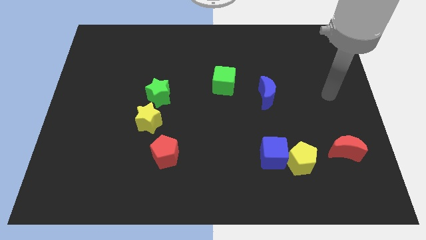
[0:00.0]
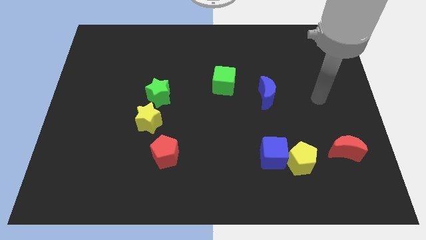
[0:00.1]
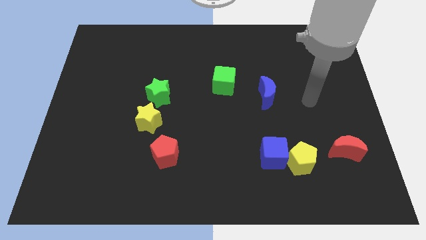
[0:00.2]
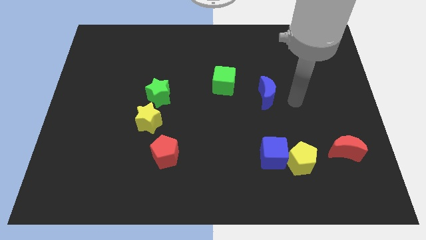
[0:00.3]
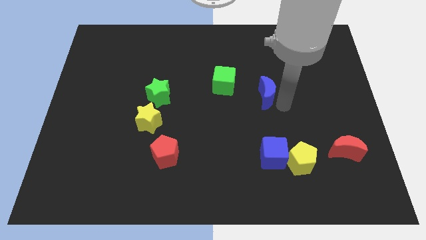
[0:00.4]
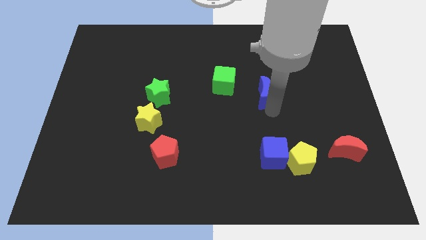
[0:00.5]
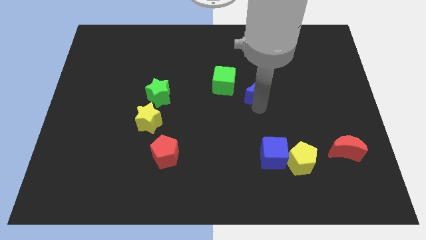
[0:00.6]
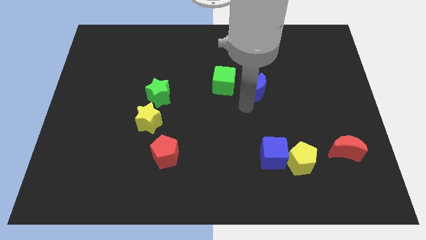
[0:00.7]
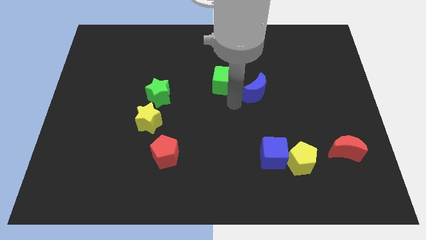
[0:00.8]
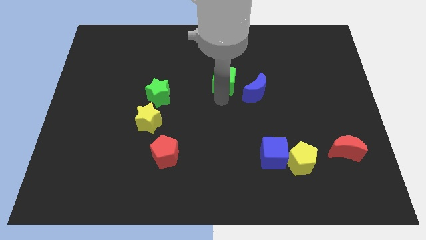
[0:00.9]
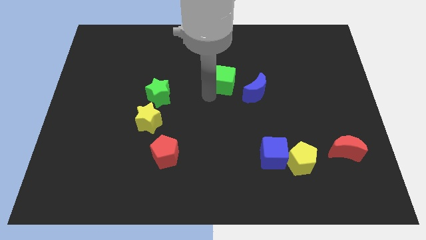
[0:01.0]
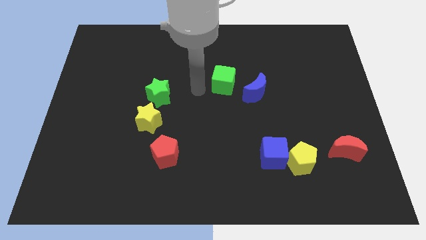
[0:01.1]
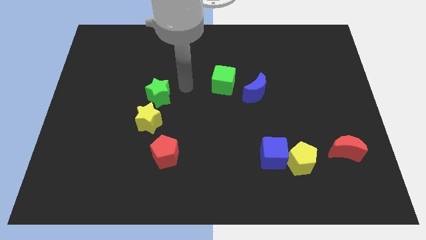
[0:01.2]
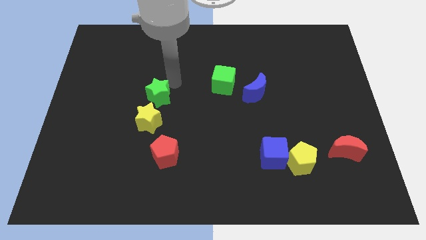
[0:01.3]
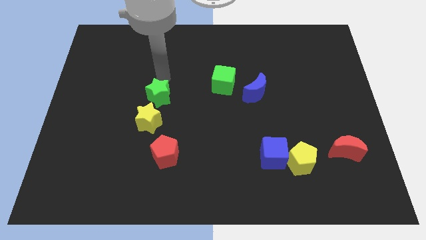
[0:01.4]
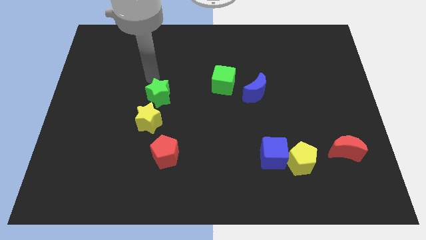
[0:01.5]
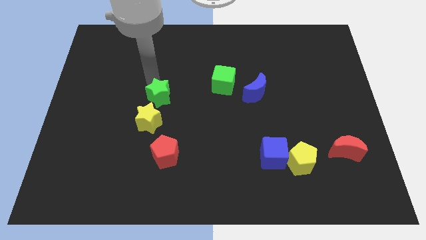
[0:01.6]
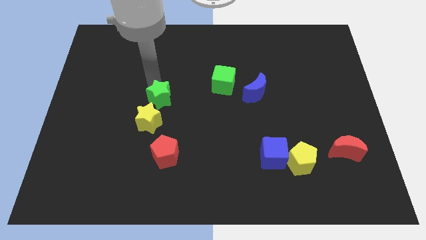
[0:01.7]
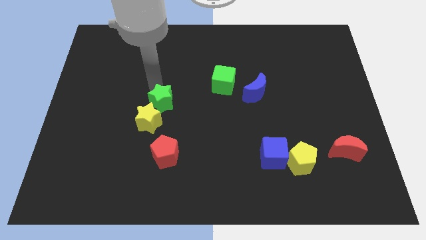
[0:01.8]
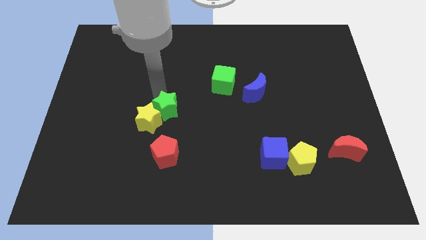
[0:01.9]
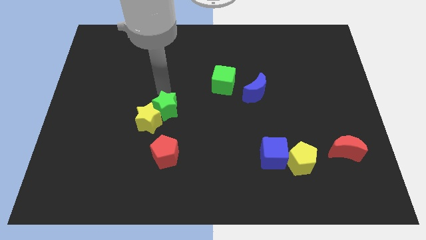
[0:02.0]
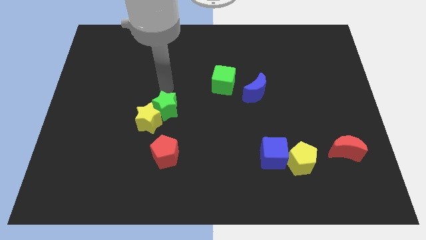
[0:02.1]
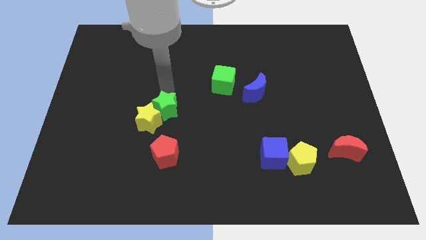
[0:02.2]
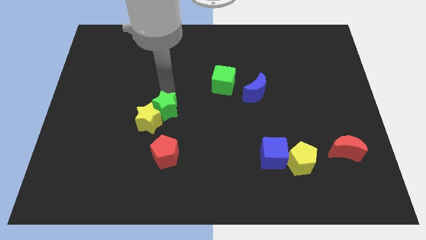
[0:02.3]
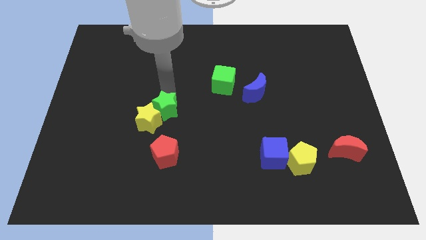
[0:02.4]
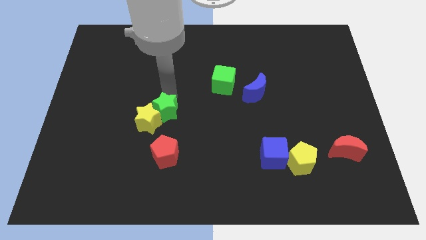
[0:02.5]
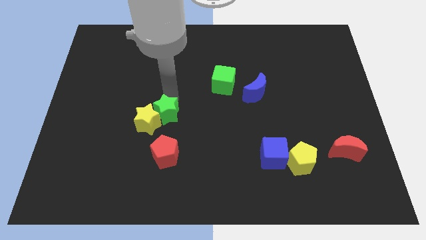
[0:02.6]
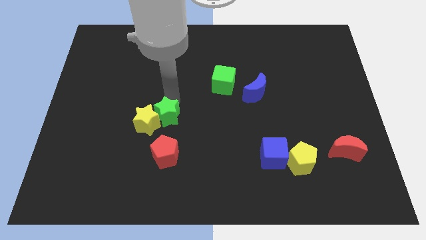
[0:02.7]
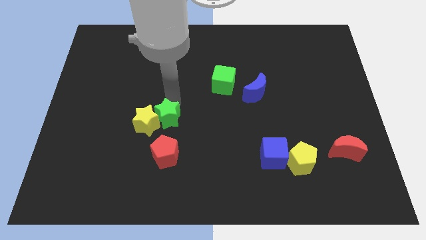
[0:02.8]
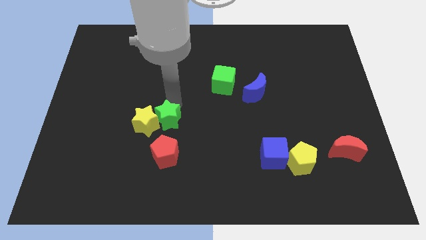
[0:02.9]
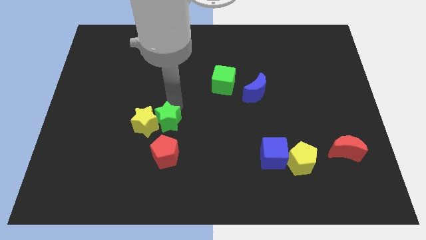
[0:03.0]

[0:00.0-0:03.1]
move the green star slightly downwards

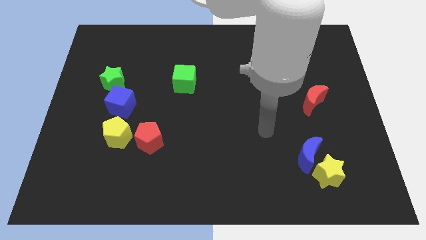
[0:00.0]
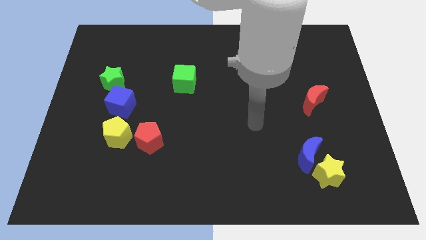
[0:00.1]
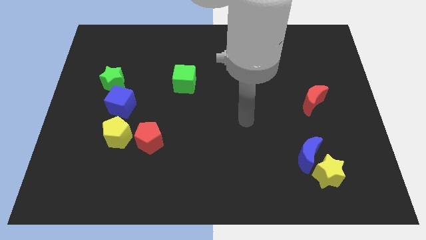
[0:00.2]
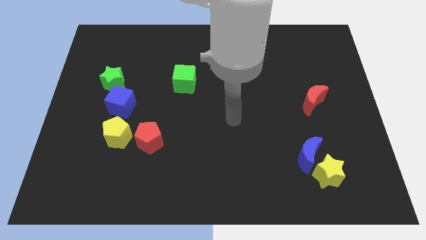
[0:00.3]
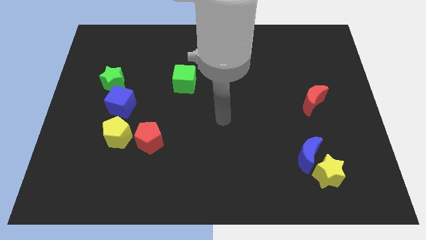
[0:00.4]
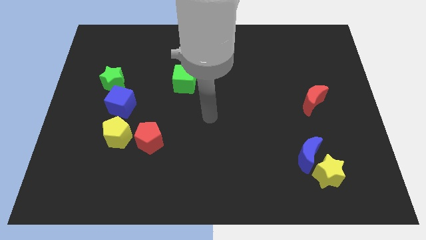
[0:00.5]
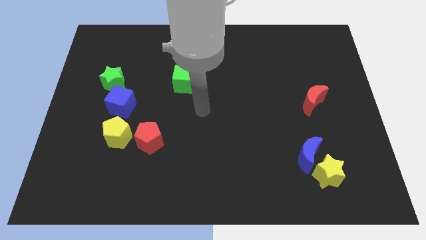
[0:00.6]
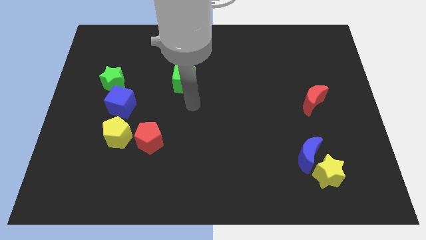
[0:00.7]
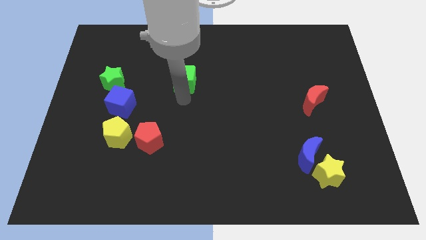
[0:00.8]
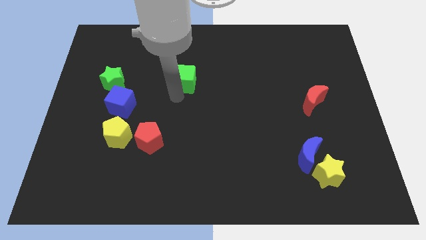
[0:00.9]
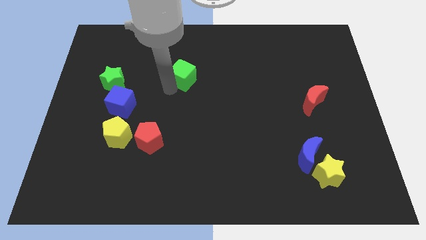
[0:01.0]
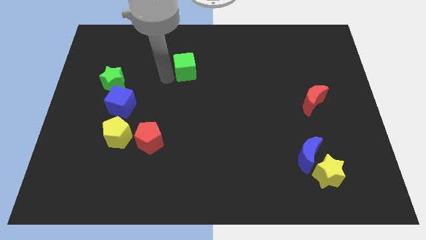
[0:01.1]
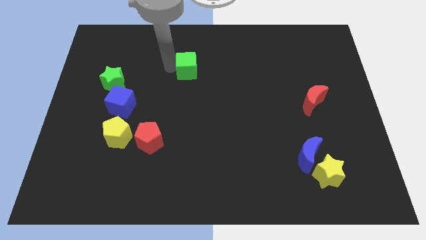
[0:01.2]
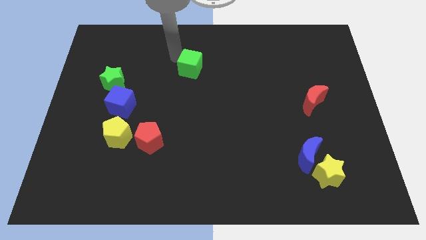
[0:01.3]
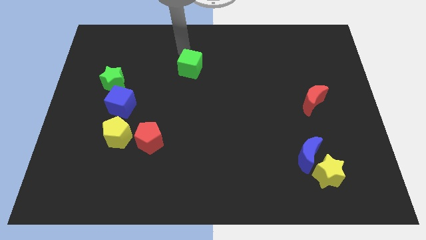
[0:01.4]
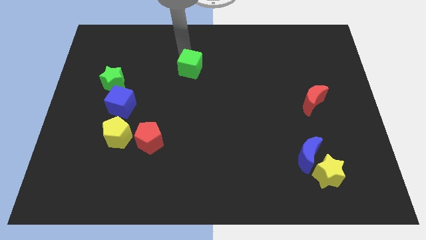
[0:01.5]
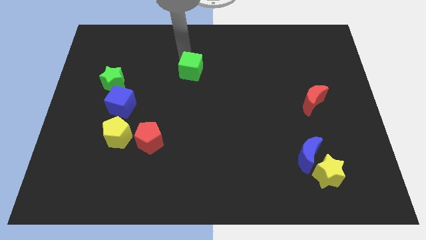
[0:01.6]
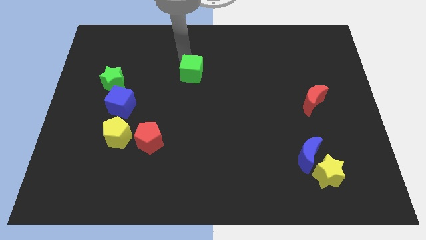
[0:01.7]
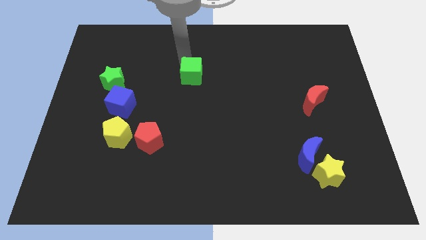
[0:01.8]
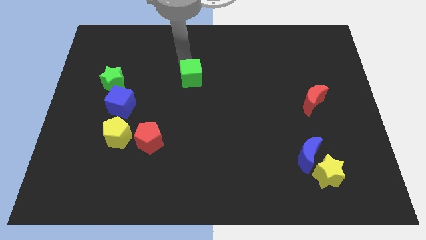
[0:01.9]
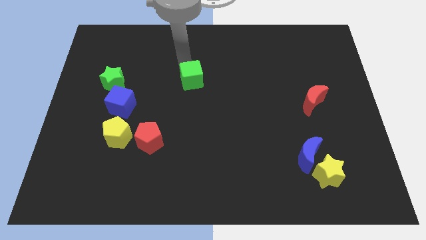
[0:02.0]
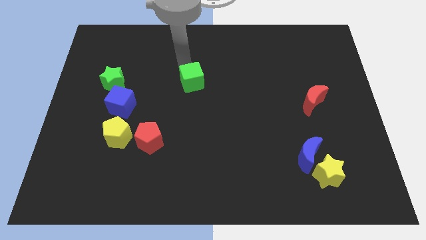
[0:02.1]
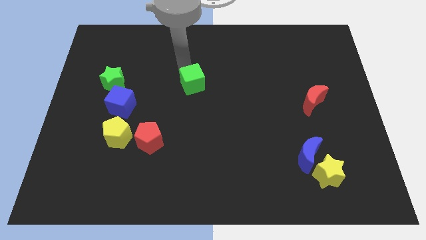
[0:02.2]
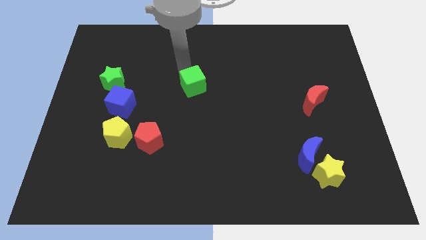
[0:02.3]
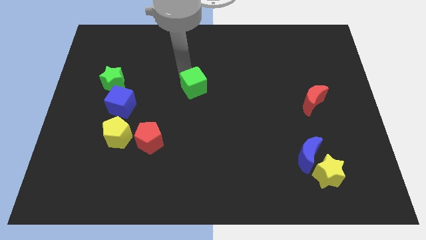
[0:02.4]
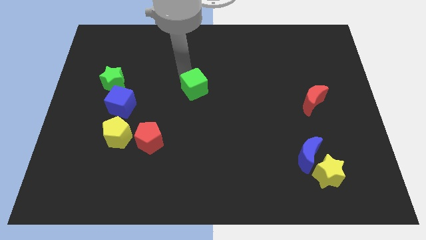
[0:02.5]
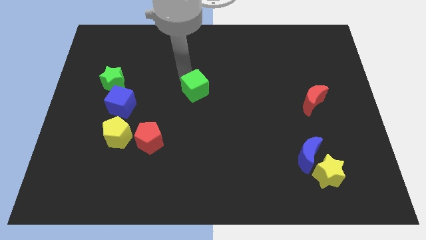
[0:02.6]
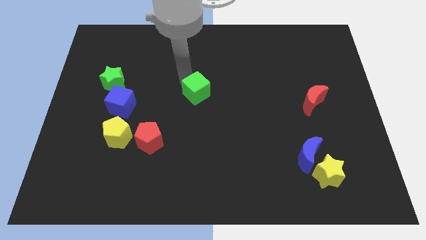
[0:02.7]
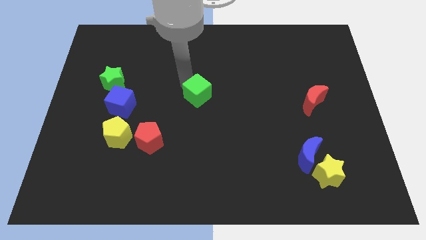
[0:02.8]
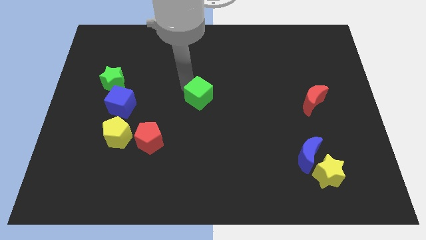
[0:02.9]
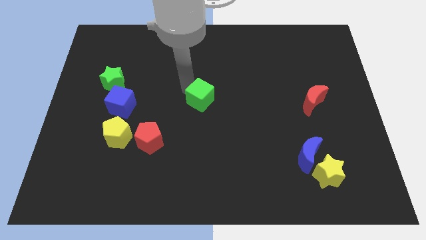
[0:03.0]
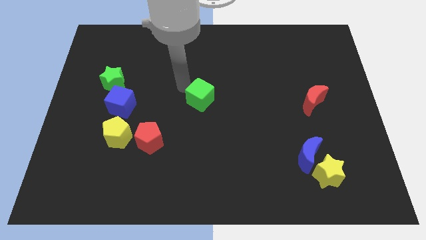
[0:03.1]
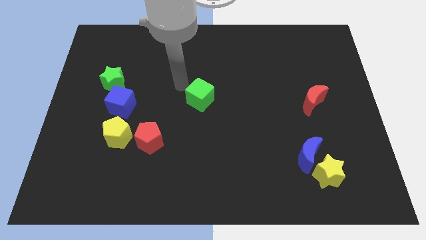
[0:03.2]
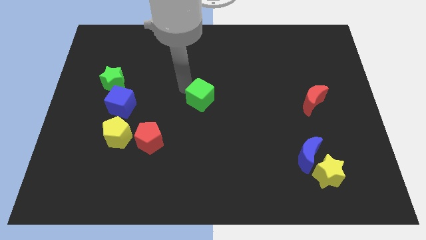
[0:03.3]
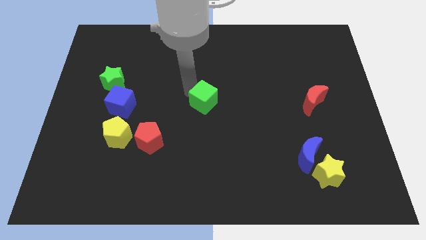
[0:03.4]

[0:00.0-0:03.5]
push the green cube a bit diagonally down and right

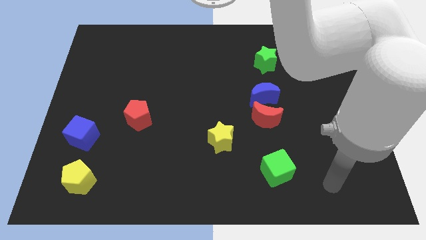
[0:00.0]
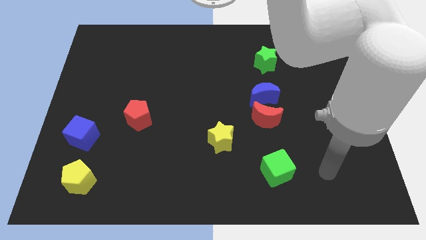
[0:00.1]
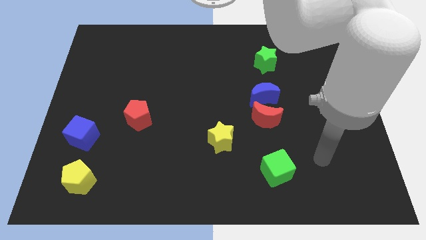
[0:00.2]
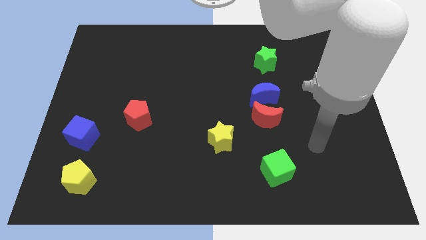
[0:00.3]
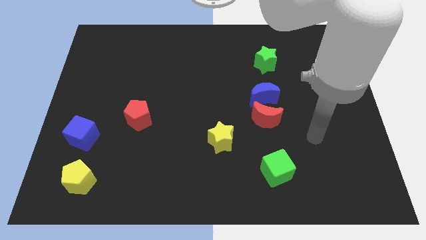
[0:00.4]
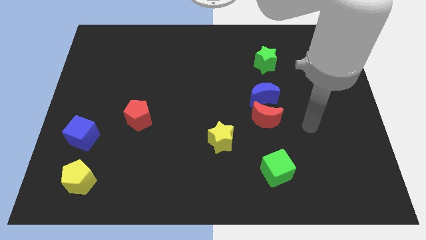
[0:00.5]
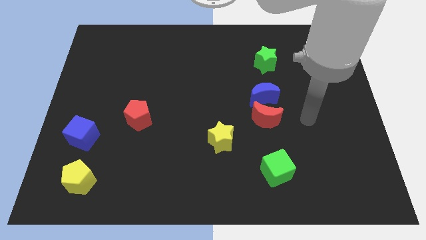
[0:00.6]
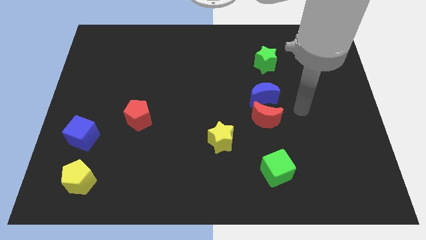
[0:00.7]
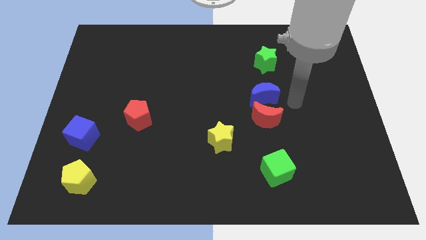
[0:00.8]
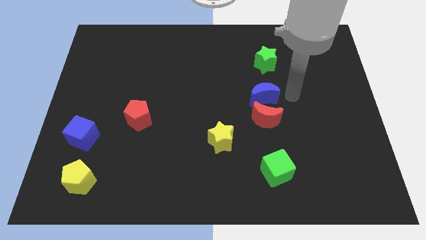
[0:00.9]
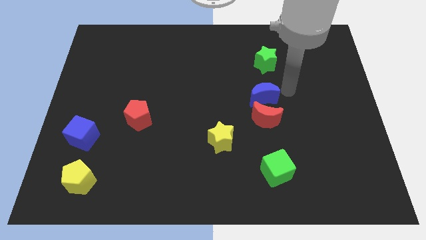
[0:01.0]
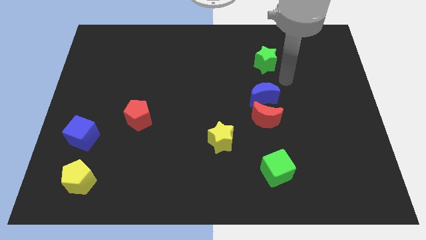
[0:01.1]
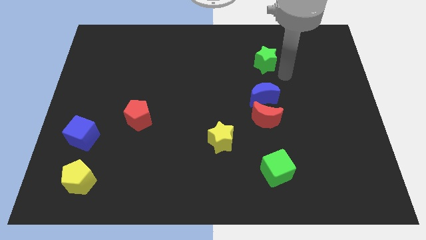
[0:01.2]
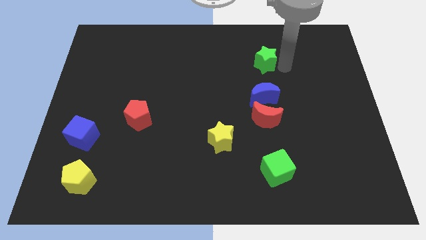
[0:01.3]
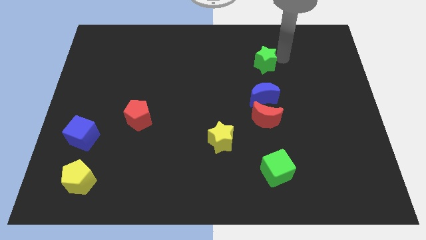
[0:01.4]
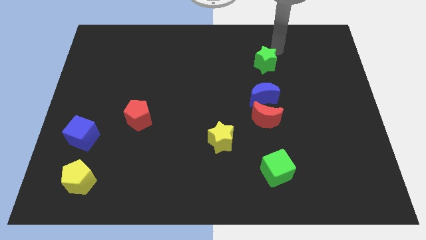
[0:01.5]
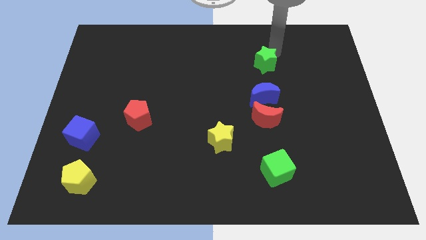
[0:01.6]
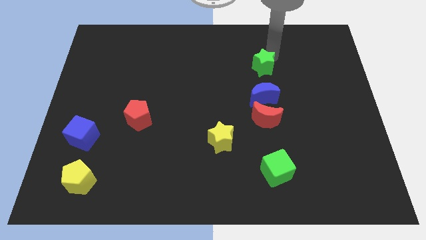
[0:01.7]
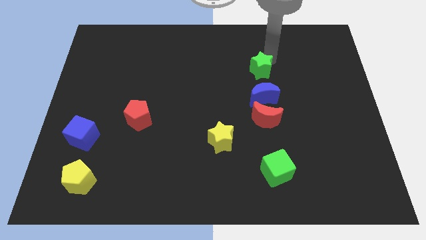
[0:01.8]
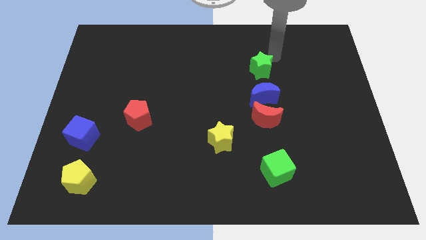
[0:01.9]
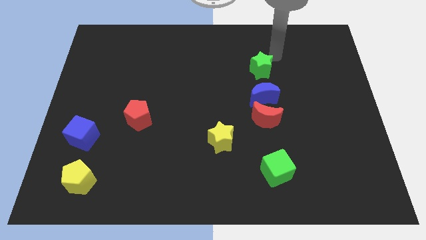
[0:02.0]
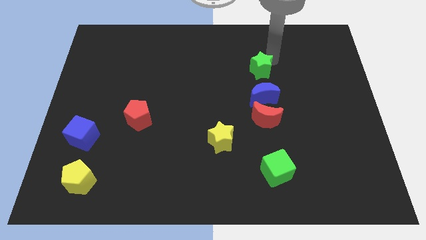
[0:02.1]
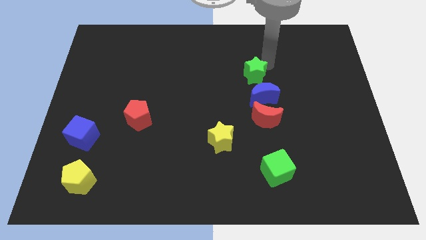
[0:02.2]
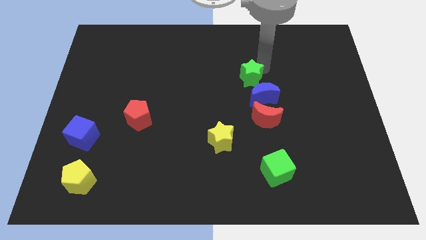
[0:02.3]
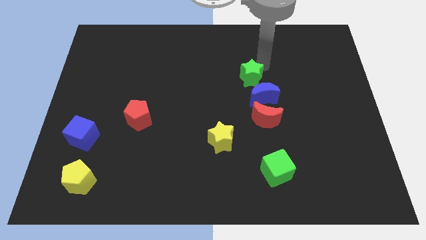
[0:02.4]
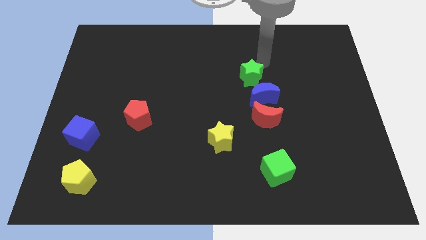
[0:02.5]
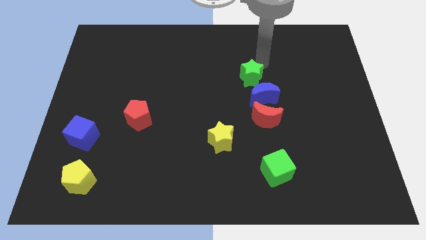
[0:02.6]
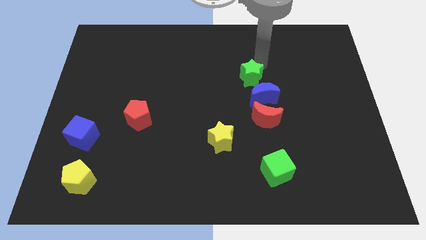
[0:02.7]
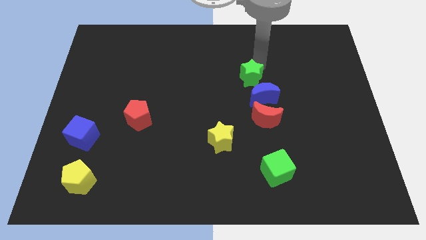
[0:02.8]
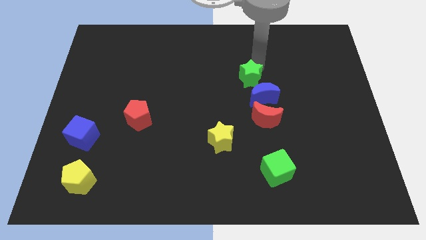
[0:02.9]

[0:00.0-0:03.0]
move the green star down and to the left a bit
